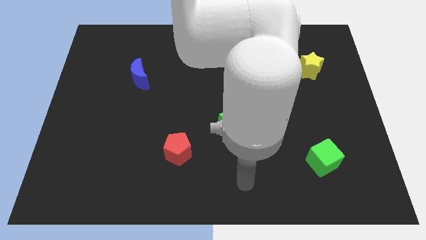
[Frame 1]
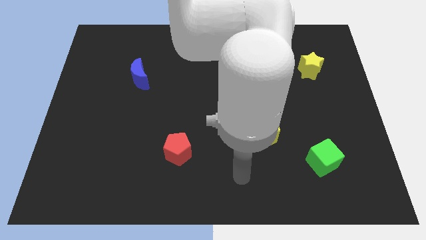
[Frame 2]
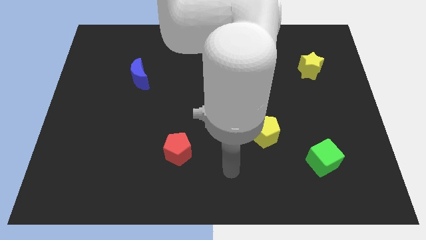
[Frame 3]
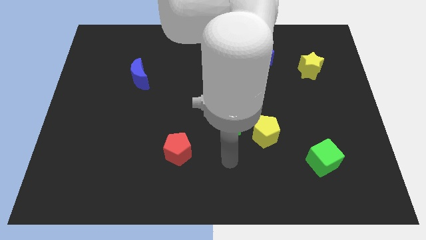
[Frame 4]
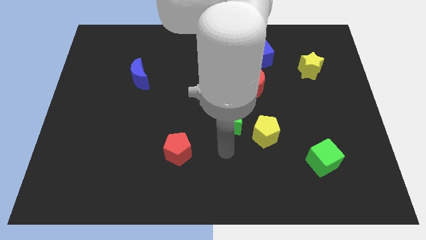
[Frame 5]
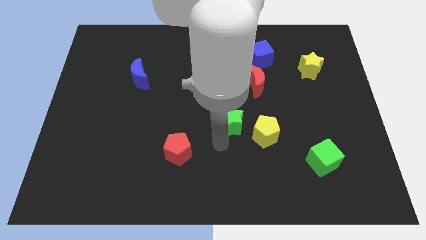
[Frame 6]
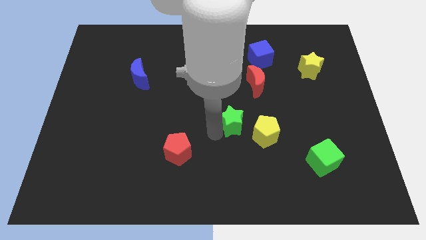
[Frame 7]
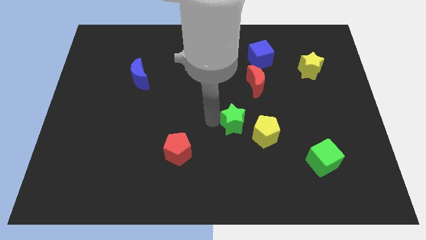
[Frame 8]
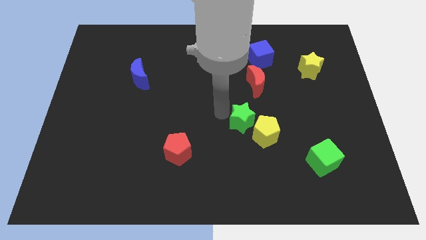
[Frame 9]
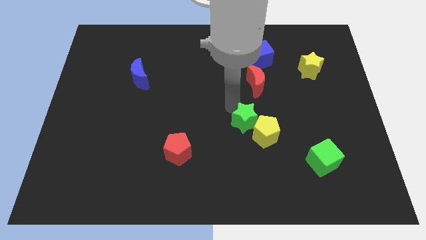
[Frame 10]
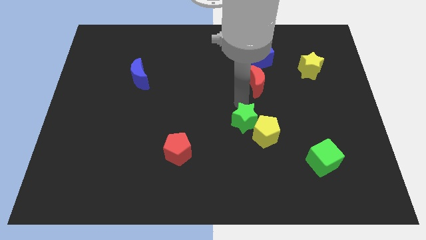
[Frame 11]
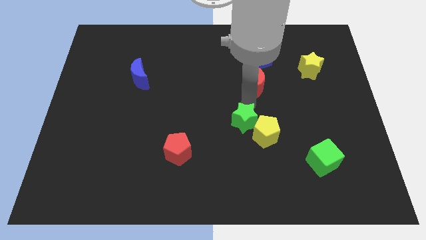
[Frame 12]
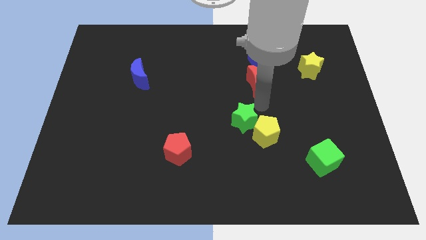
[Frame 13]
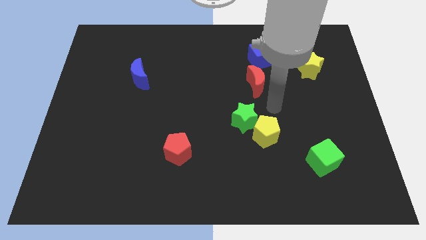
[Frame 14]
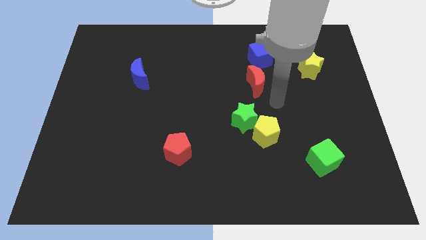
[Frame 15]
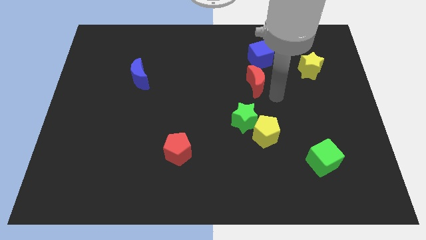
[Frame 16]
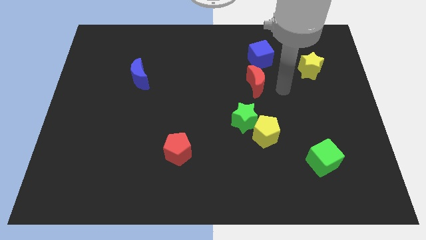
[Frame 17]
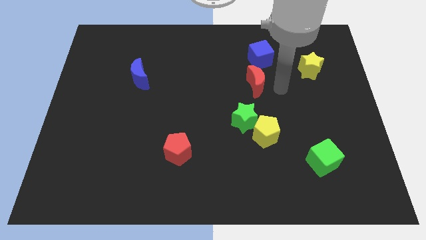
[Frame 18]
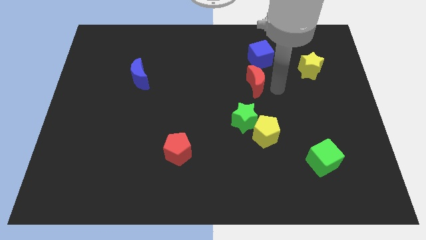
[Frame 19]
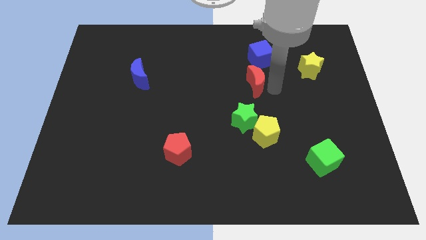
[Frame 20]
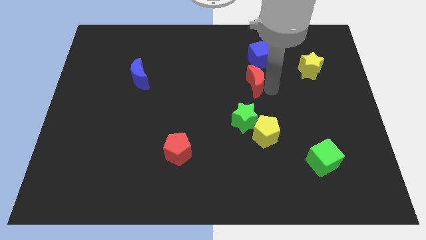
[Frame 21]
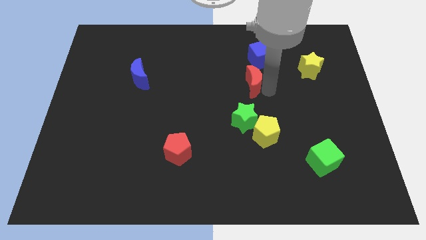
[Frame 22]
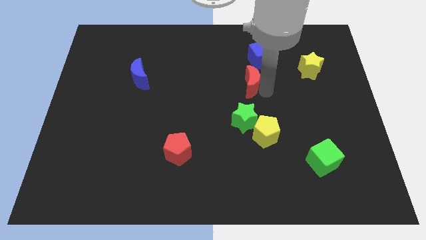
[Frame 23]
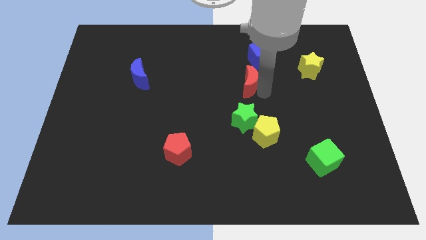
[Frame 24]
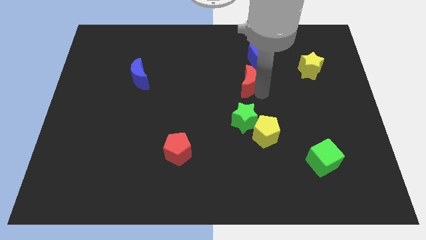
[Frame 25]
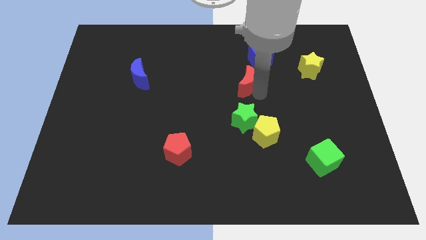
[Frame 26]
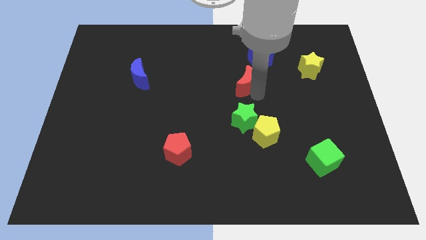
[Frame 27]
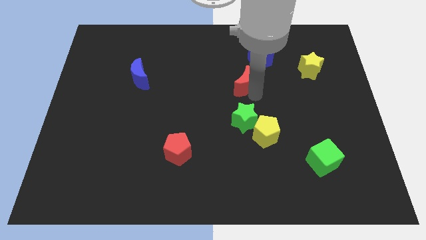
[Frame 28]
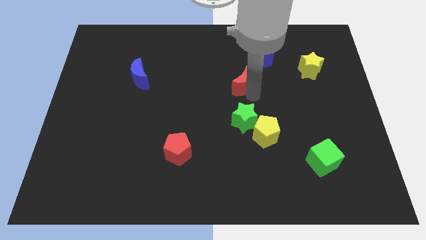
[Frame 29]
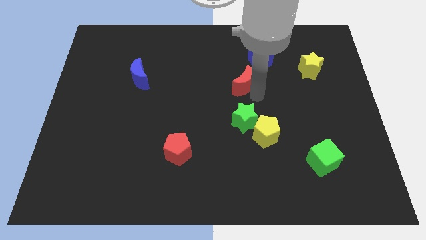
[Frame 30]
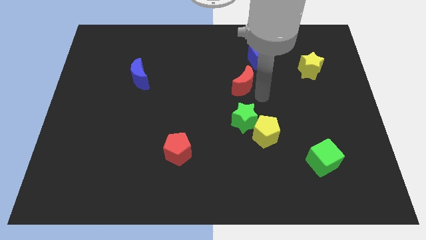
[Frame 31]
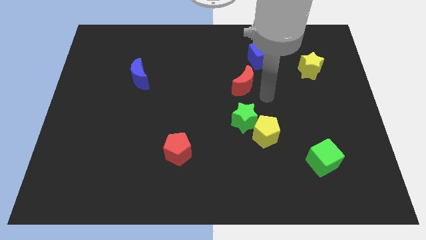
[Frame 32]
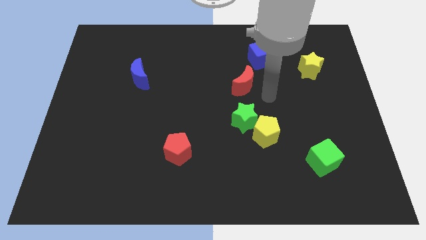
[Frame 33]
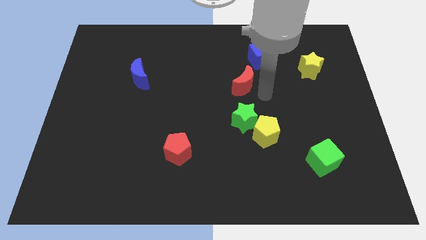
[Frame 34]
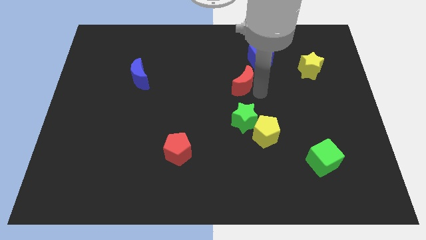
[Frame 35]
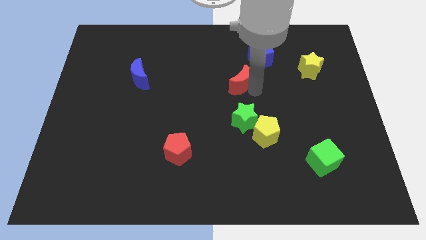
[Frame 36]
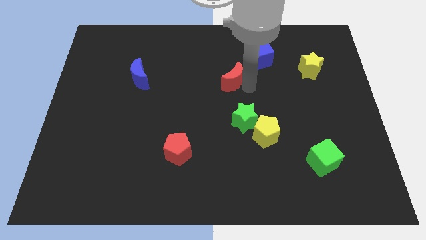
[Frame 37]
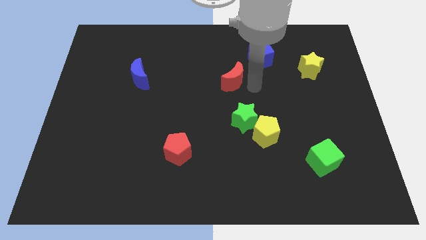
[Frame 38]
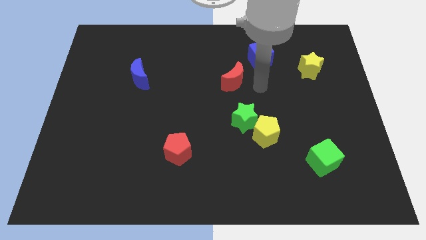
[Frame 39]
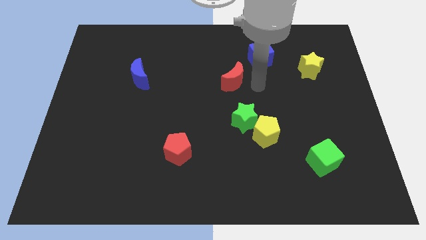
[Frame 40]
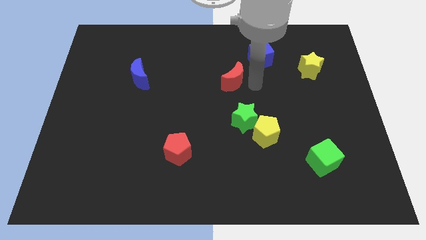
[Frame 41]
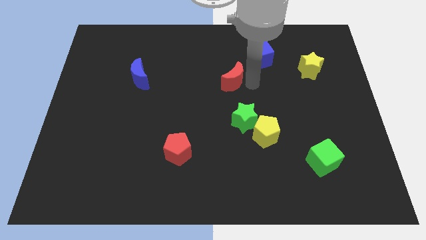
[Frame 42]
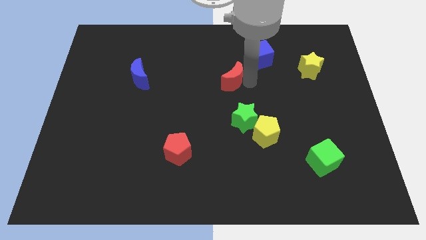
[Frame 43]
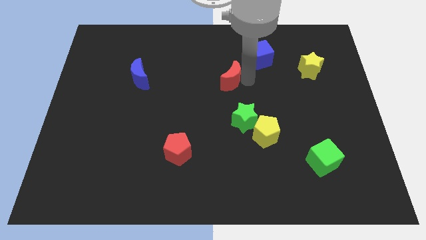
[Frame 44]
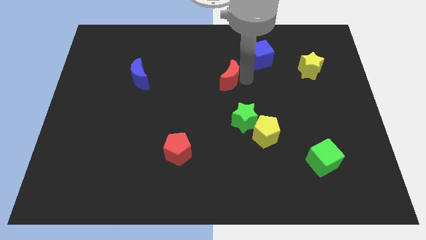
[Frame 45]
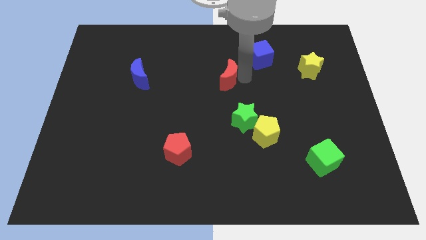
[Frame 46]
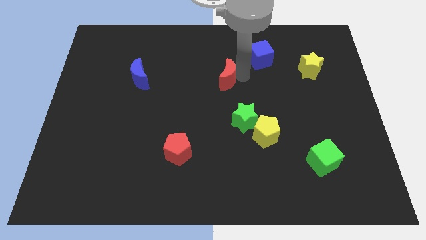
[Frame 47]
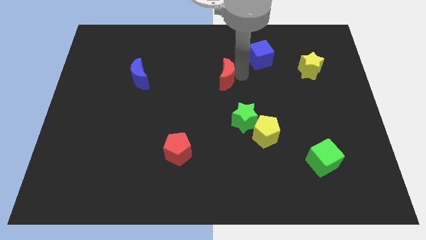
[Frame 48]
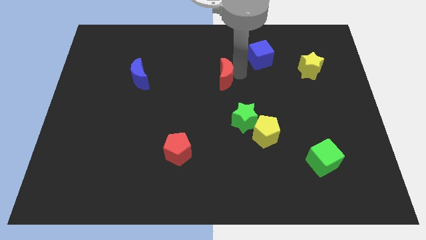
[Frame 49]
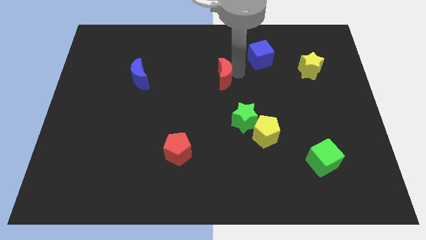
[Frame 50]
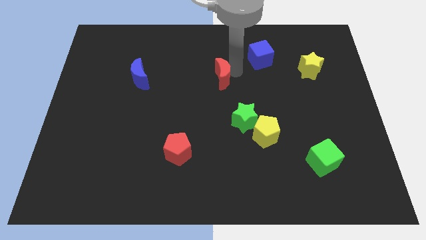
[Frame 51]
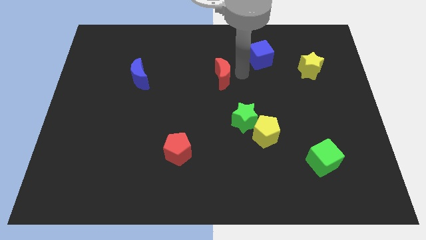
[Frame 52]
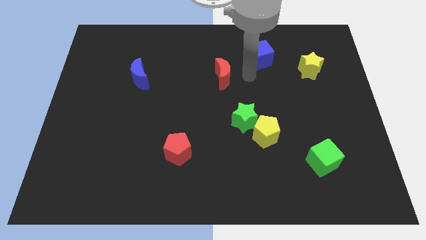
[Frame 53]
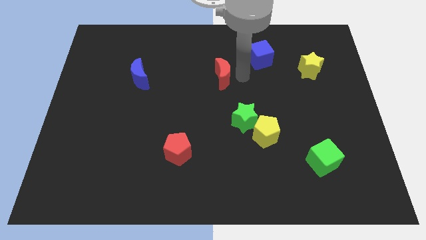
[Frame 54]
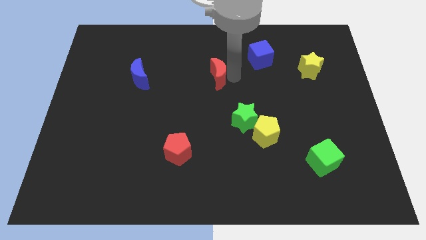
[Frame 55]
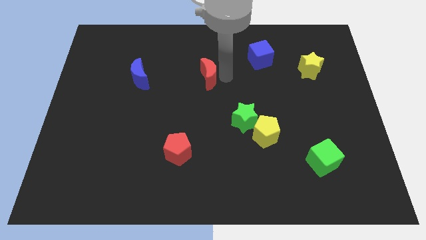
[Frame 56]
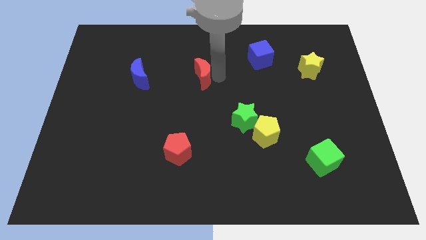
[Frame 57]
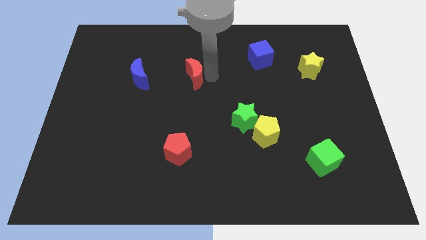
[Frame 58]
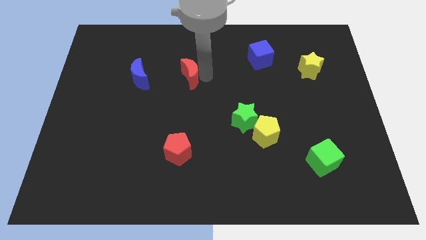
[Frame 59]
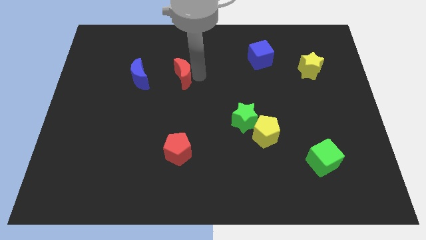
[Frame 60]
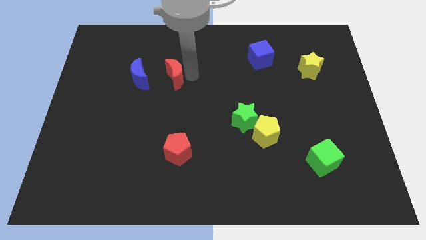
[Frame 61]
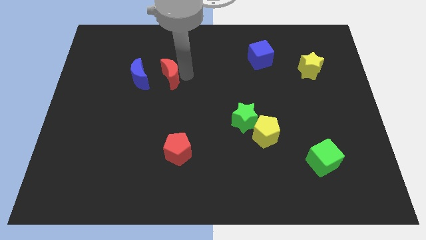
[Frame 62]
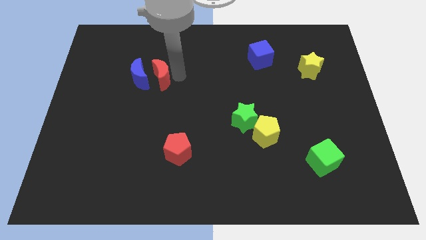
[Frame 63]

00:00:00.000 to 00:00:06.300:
slide the red moon towards the blue moon

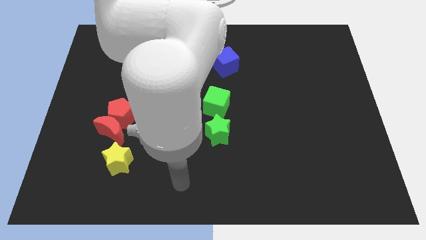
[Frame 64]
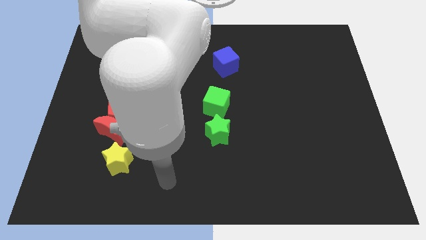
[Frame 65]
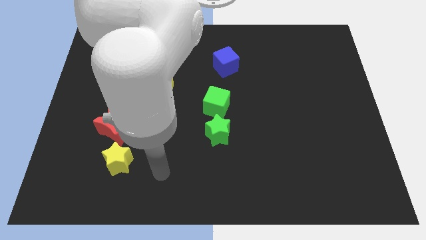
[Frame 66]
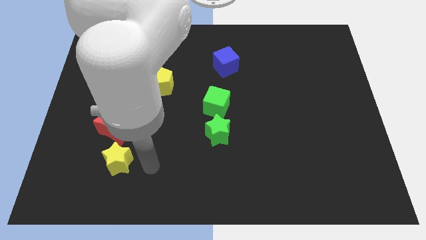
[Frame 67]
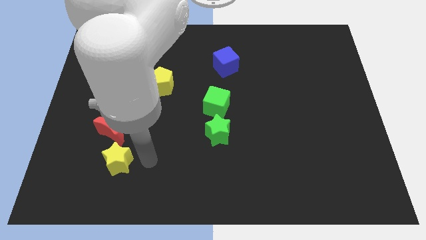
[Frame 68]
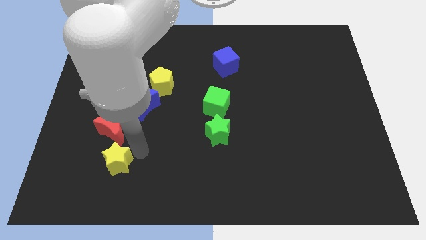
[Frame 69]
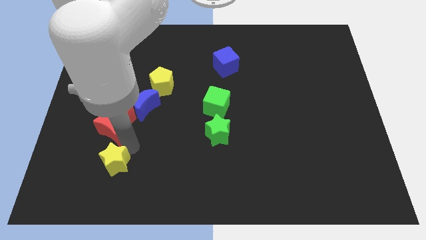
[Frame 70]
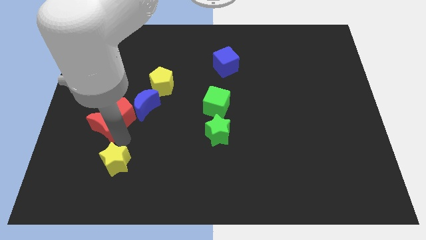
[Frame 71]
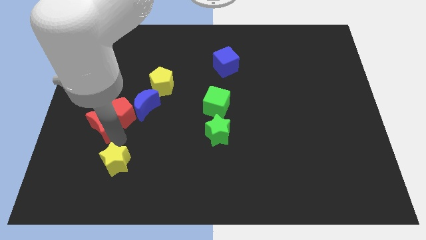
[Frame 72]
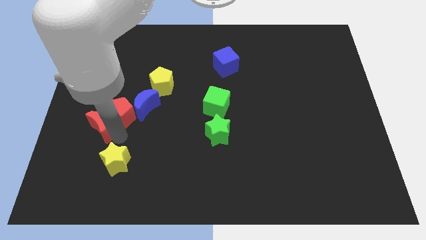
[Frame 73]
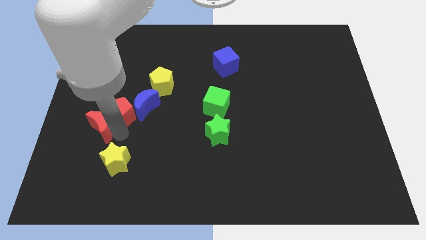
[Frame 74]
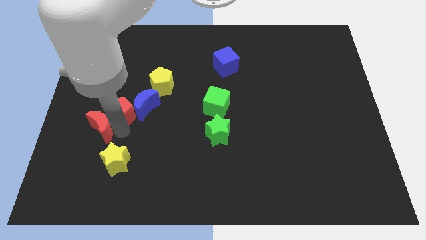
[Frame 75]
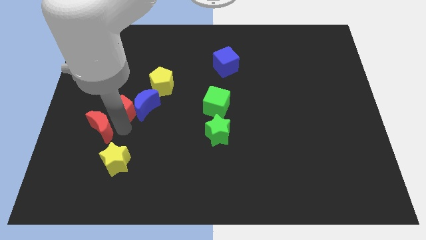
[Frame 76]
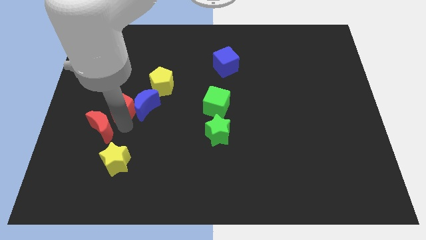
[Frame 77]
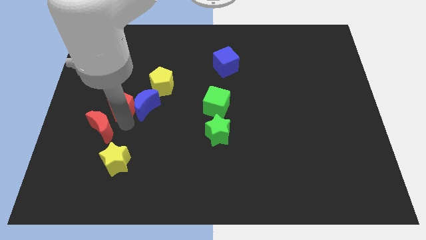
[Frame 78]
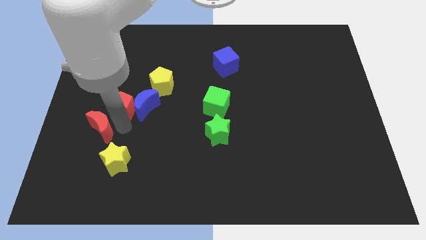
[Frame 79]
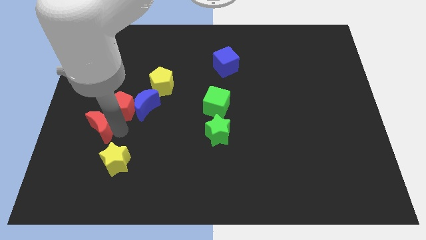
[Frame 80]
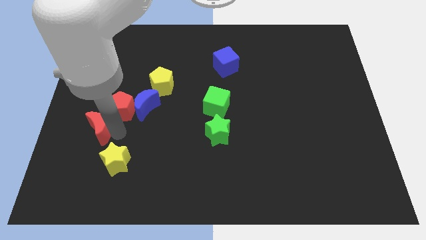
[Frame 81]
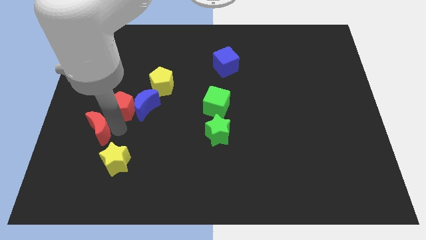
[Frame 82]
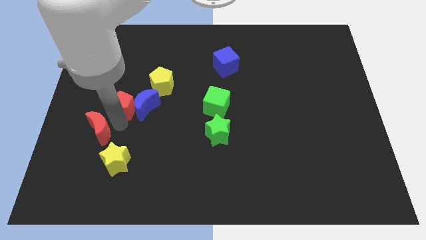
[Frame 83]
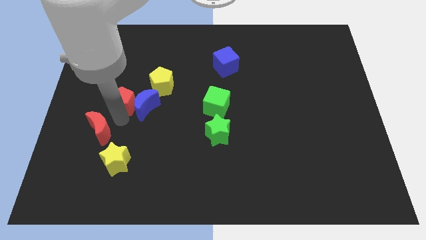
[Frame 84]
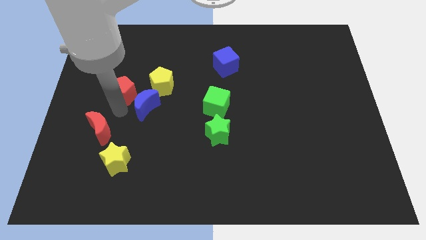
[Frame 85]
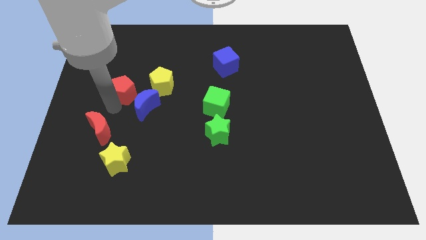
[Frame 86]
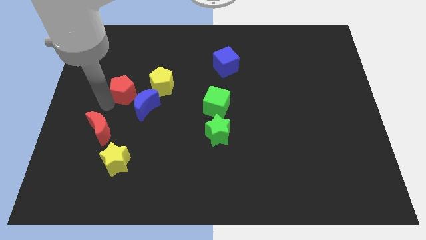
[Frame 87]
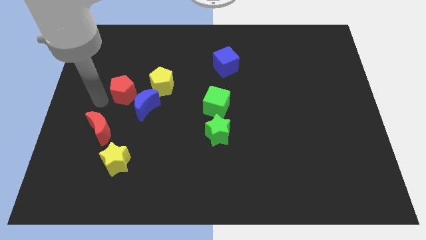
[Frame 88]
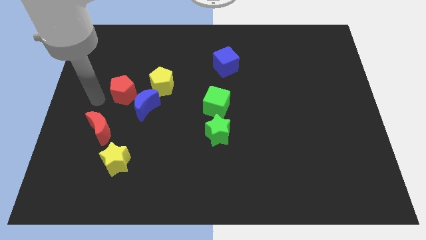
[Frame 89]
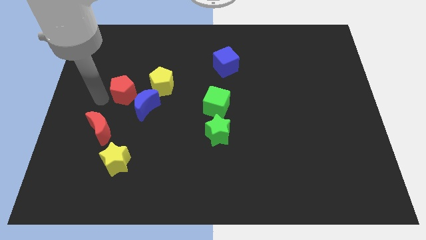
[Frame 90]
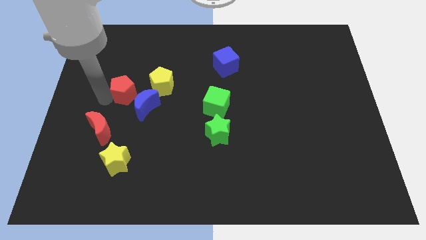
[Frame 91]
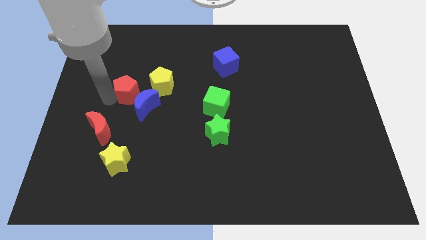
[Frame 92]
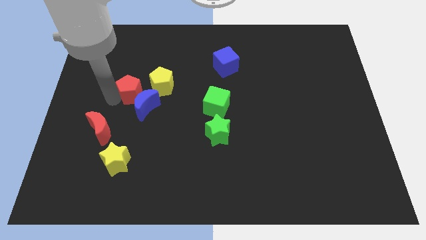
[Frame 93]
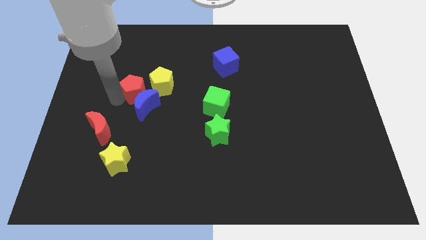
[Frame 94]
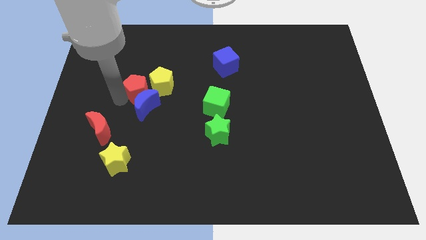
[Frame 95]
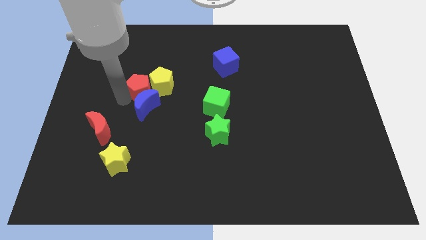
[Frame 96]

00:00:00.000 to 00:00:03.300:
slide the red pentagon next to the yellow pentagon
